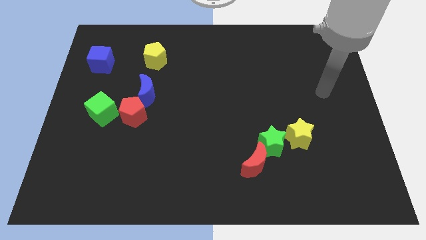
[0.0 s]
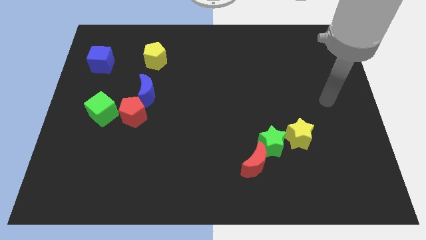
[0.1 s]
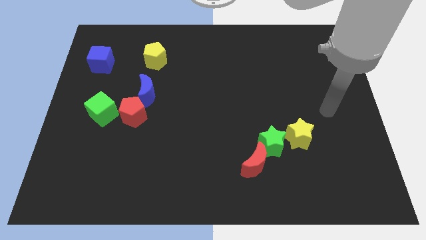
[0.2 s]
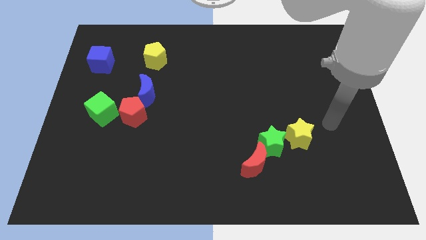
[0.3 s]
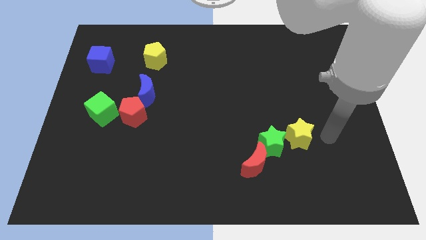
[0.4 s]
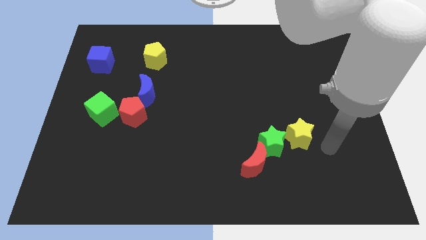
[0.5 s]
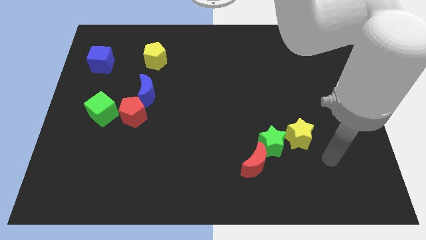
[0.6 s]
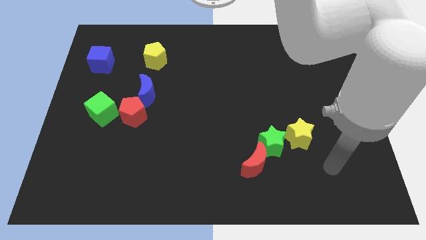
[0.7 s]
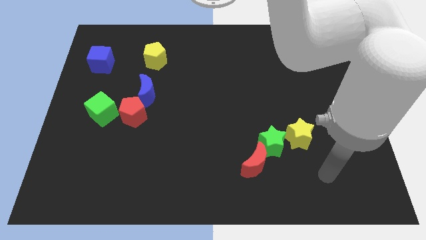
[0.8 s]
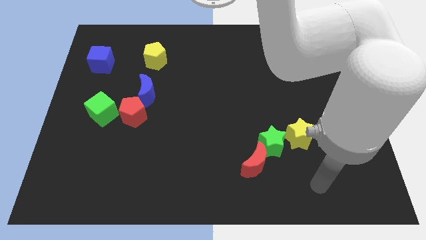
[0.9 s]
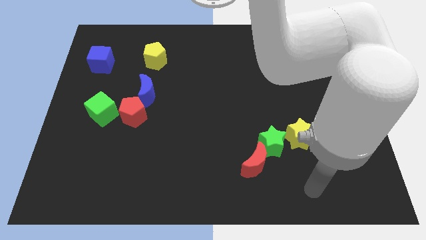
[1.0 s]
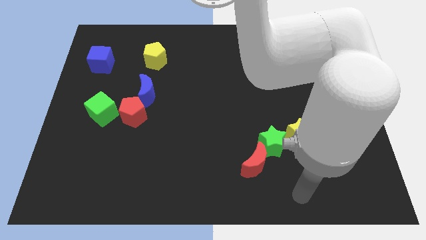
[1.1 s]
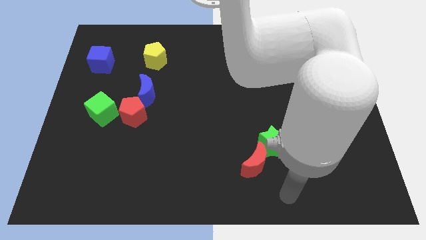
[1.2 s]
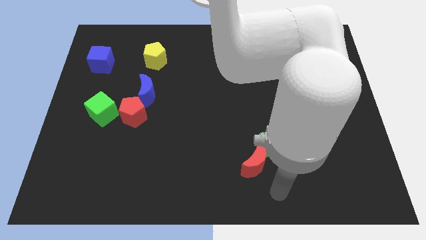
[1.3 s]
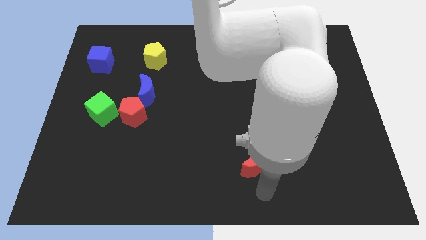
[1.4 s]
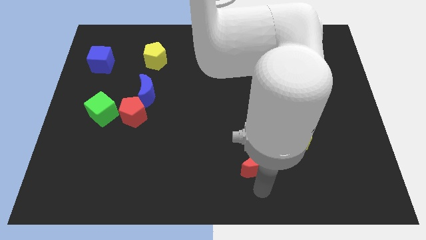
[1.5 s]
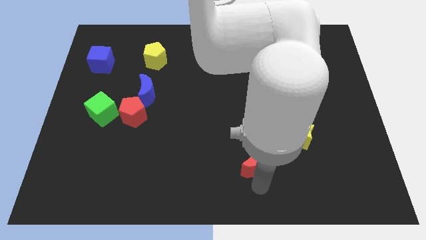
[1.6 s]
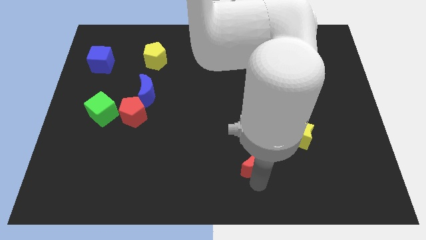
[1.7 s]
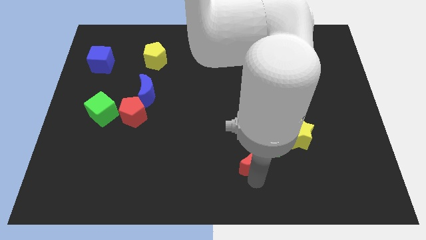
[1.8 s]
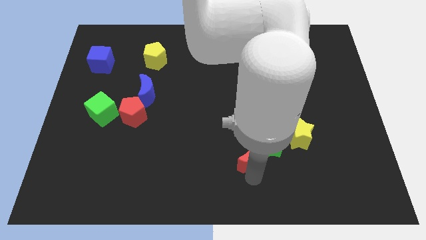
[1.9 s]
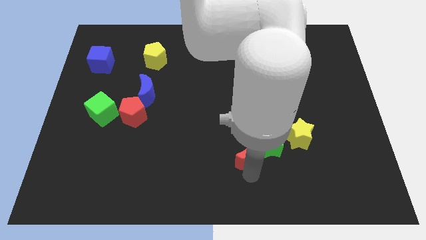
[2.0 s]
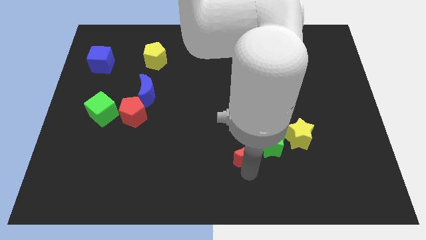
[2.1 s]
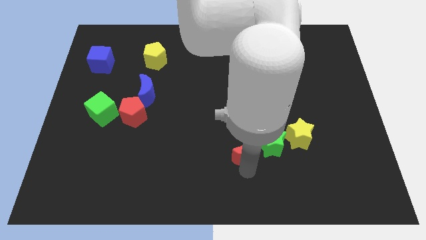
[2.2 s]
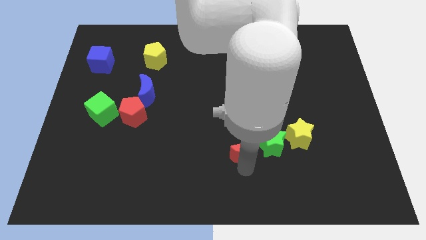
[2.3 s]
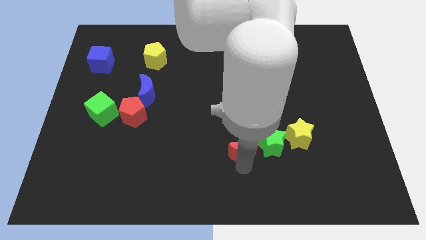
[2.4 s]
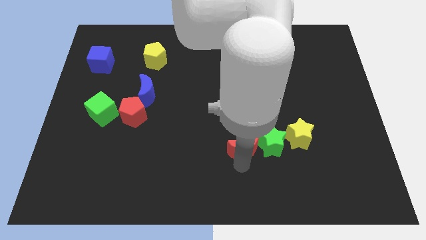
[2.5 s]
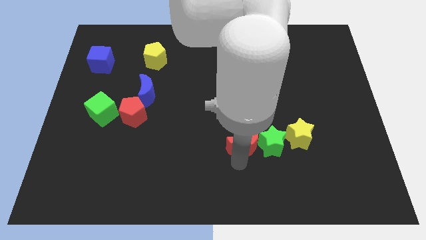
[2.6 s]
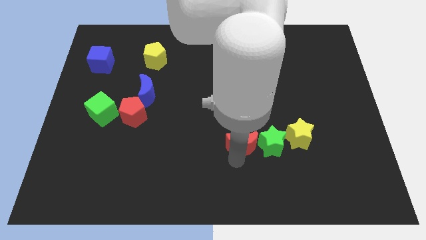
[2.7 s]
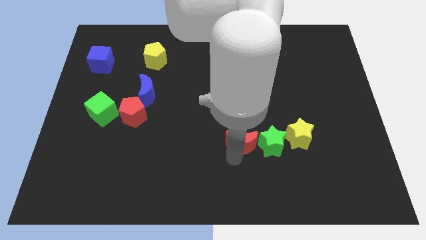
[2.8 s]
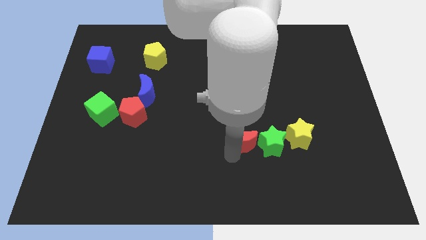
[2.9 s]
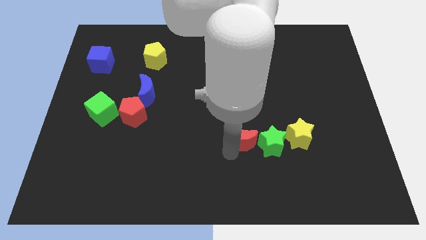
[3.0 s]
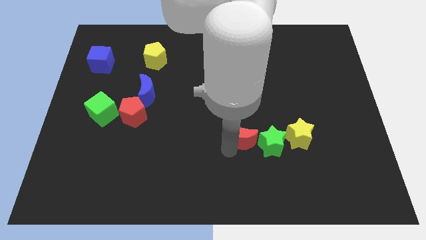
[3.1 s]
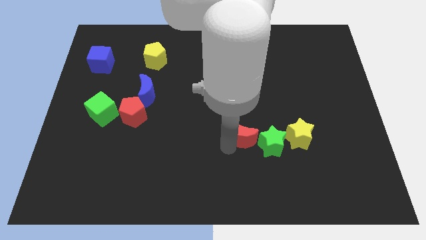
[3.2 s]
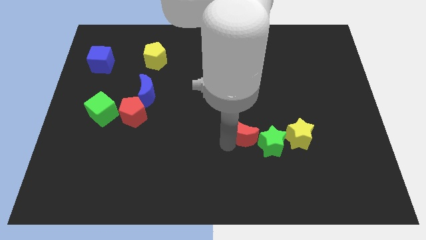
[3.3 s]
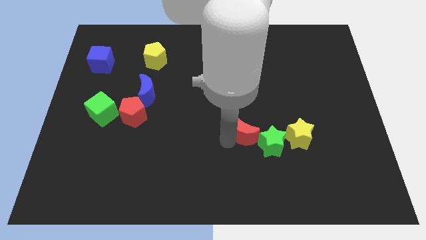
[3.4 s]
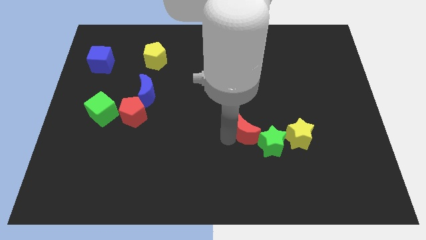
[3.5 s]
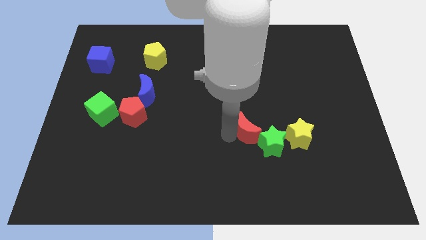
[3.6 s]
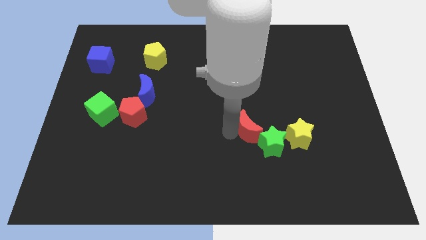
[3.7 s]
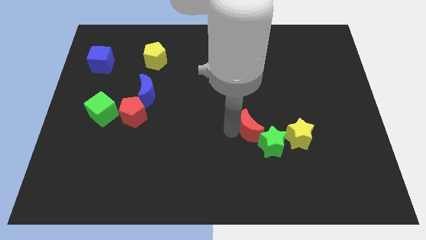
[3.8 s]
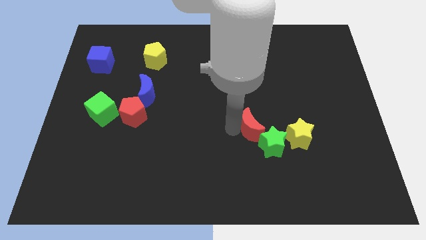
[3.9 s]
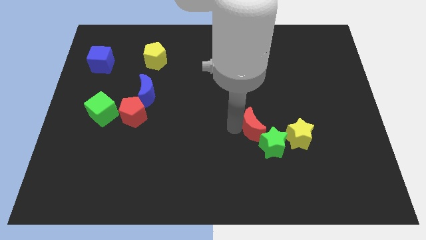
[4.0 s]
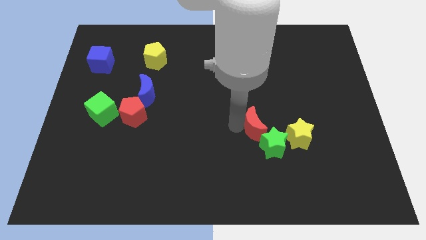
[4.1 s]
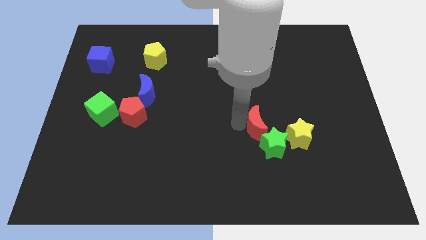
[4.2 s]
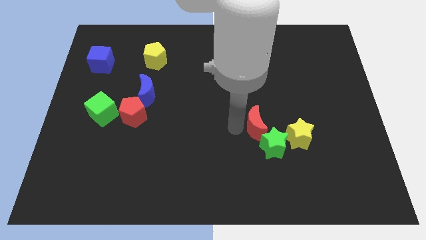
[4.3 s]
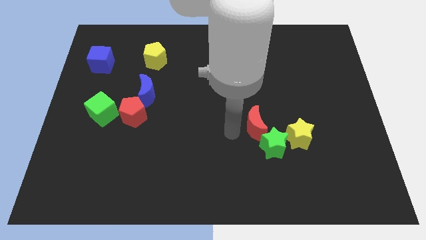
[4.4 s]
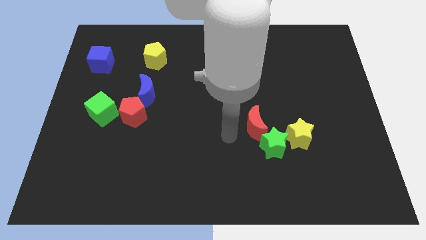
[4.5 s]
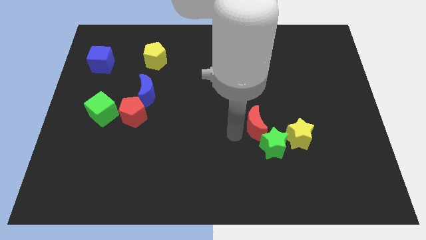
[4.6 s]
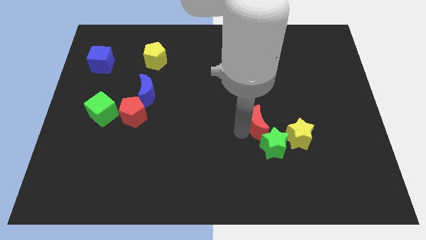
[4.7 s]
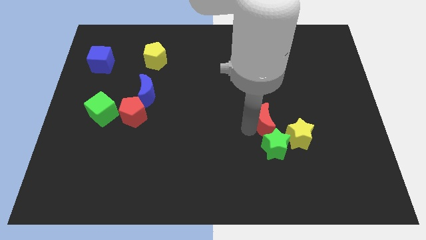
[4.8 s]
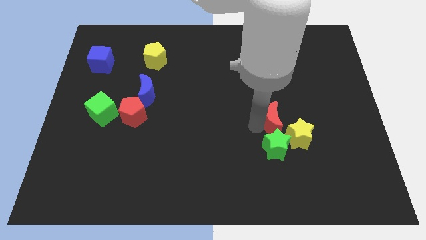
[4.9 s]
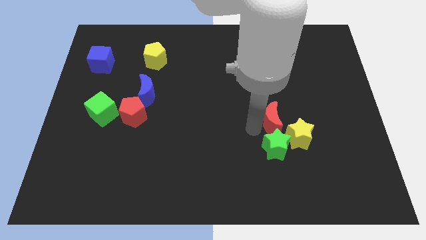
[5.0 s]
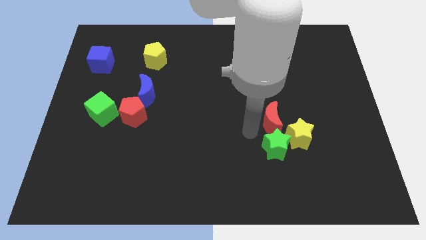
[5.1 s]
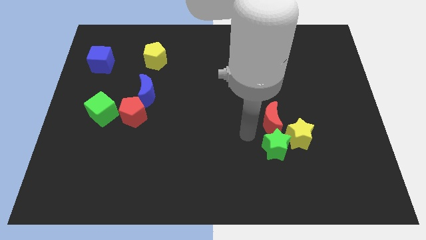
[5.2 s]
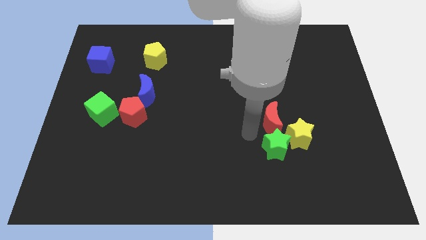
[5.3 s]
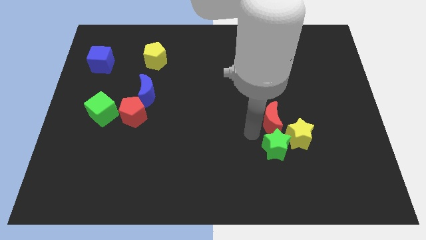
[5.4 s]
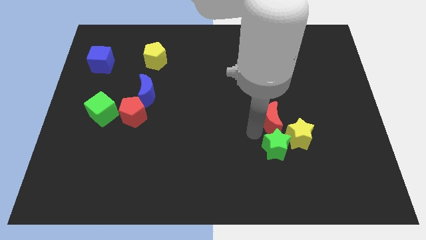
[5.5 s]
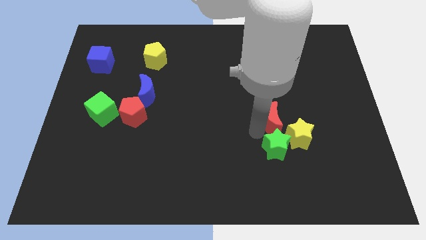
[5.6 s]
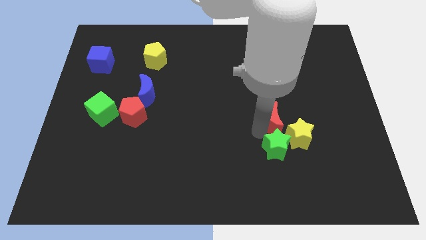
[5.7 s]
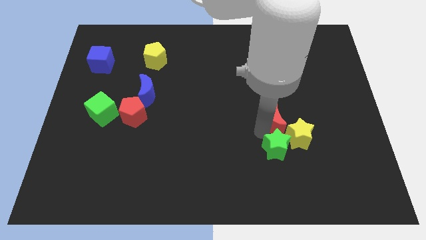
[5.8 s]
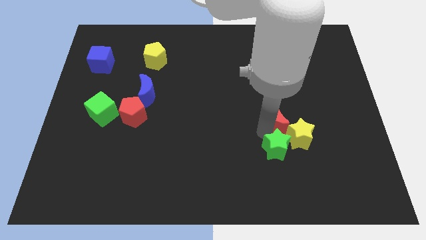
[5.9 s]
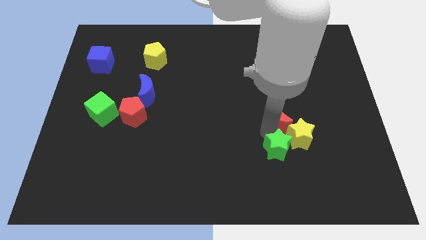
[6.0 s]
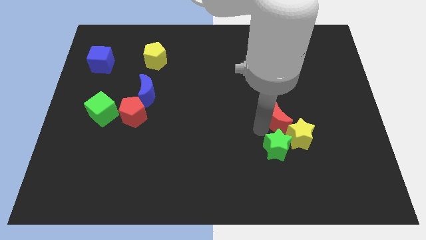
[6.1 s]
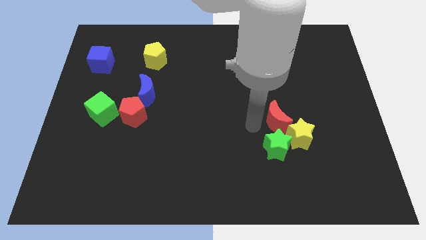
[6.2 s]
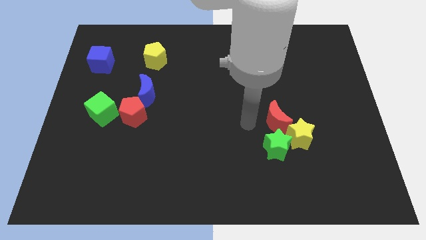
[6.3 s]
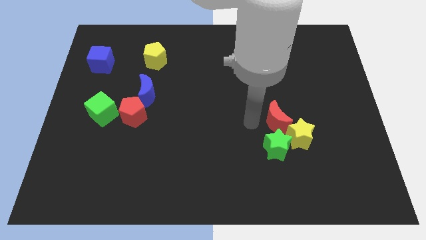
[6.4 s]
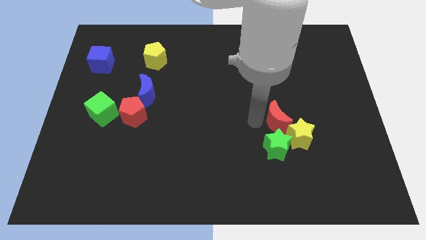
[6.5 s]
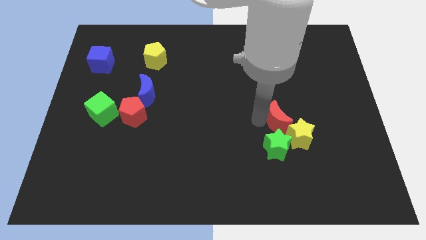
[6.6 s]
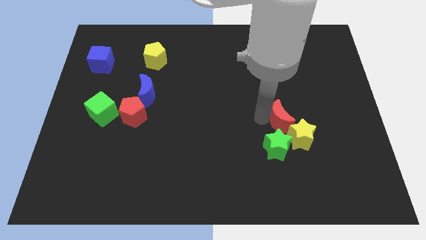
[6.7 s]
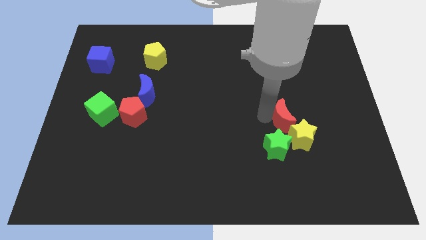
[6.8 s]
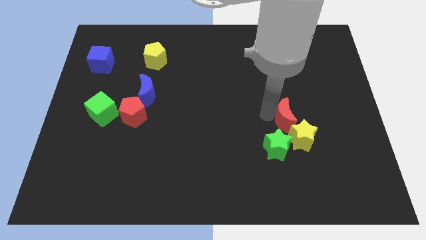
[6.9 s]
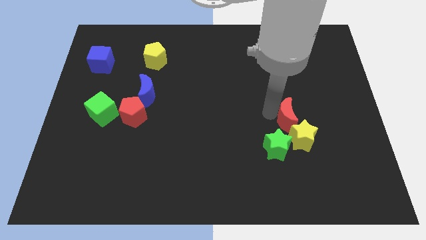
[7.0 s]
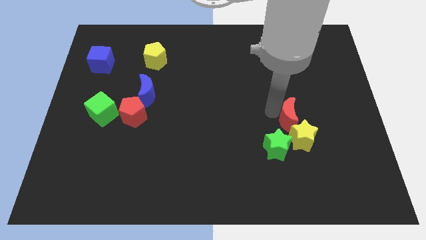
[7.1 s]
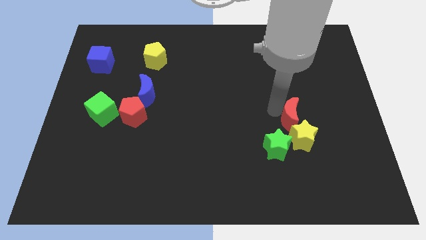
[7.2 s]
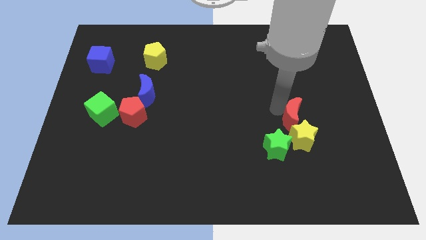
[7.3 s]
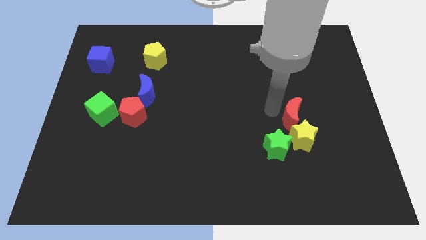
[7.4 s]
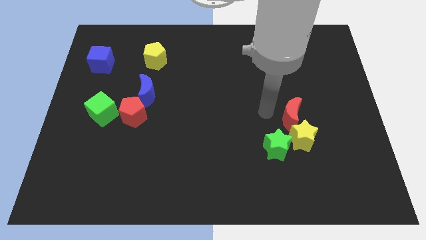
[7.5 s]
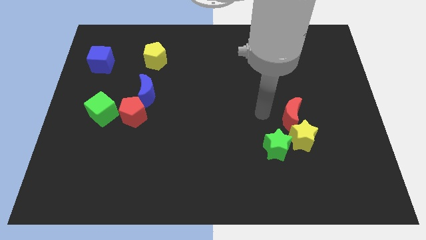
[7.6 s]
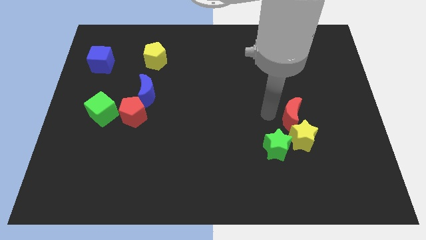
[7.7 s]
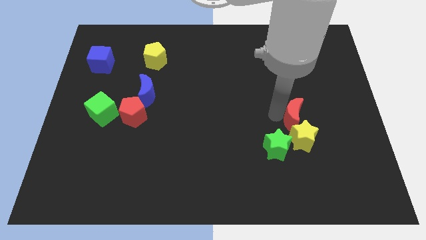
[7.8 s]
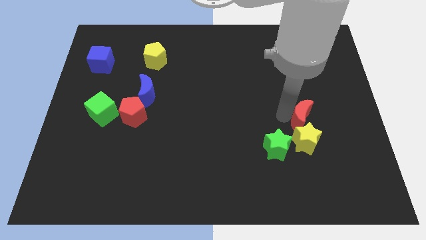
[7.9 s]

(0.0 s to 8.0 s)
move the red moon to the top right of the yellow star
